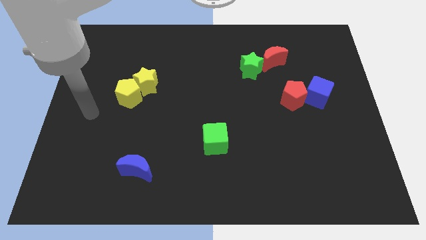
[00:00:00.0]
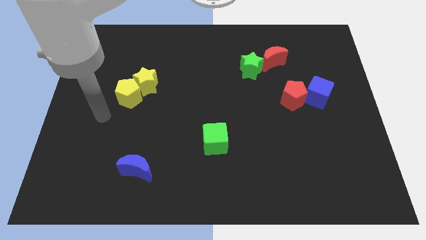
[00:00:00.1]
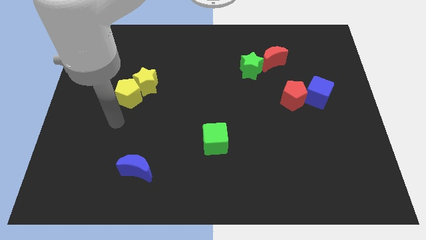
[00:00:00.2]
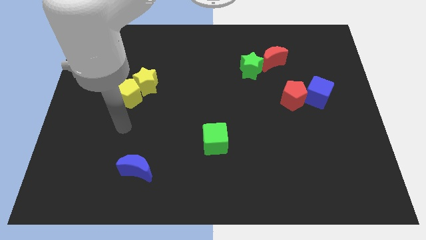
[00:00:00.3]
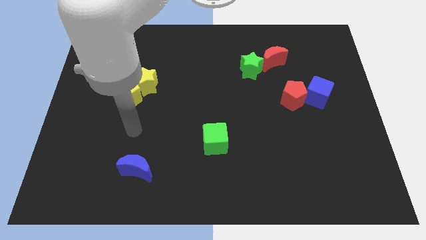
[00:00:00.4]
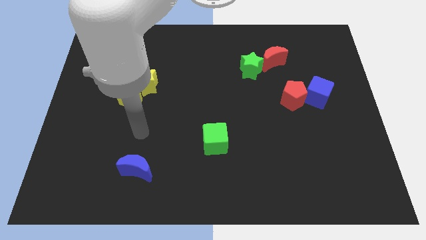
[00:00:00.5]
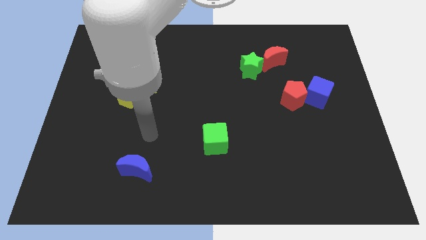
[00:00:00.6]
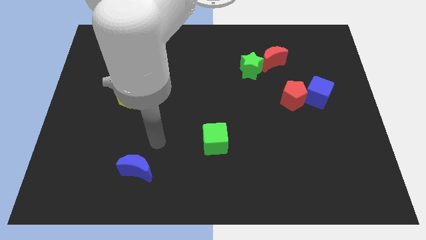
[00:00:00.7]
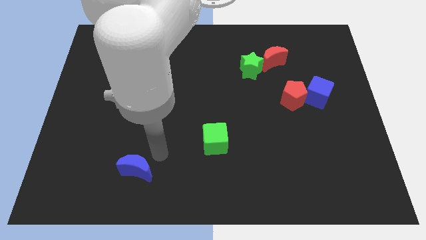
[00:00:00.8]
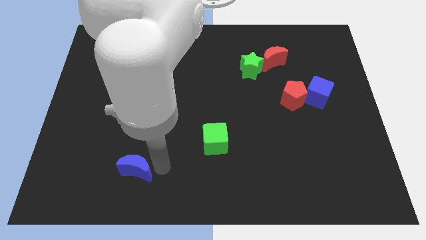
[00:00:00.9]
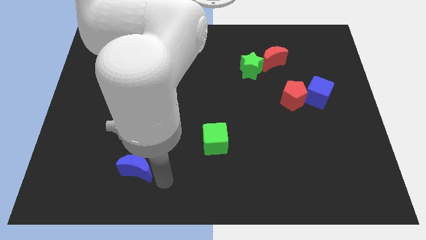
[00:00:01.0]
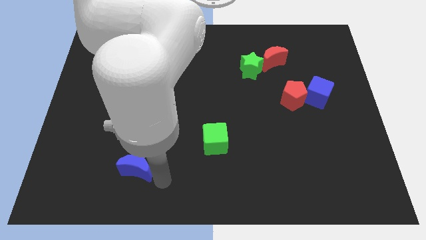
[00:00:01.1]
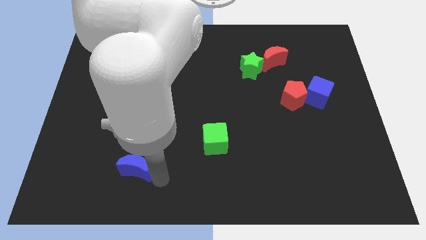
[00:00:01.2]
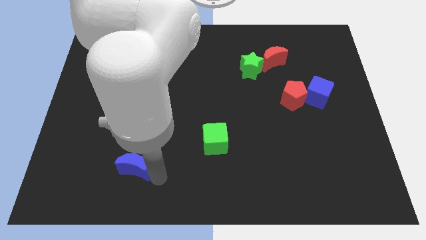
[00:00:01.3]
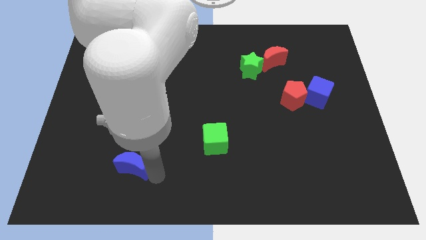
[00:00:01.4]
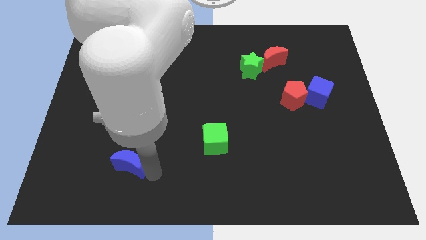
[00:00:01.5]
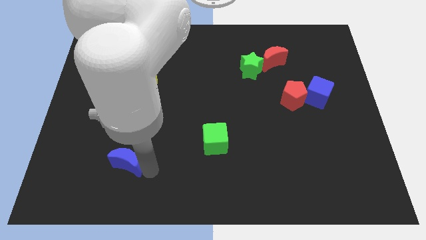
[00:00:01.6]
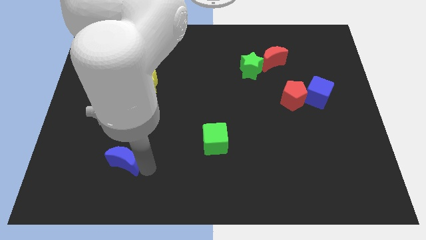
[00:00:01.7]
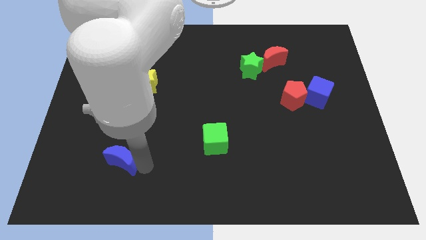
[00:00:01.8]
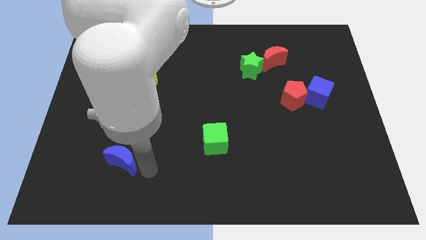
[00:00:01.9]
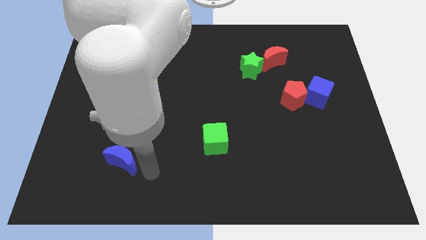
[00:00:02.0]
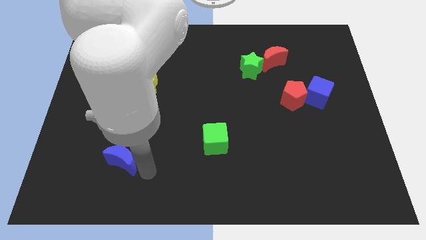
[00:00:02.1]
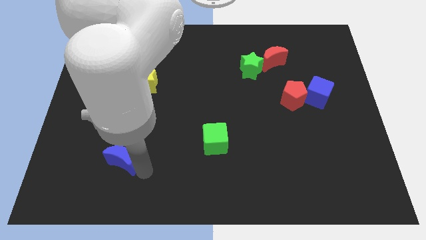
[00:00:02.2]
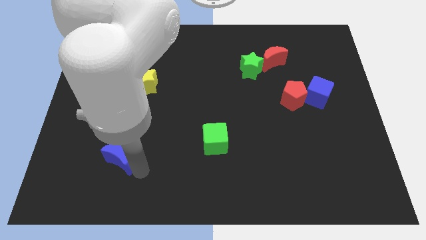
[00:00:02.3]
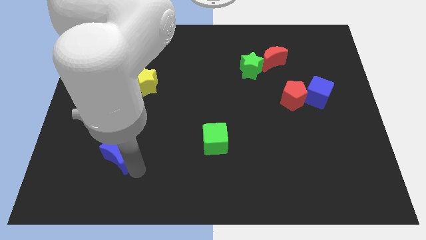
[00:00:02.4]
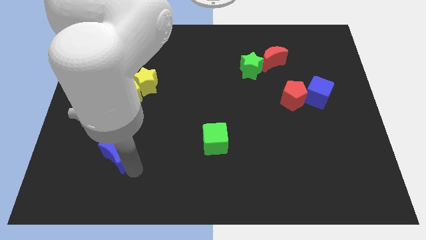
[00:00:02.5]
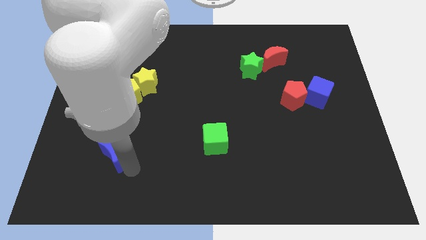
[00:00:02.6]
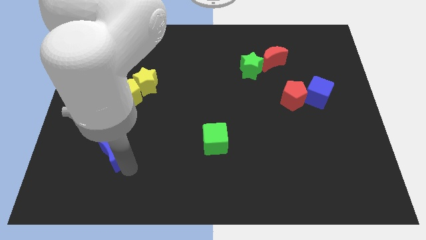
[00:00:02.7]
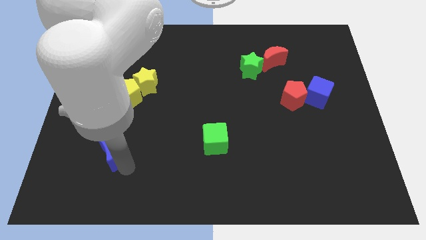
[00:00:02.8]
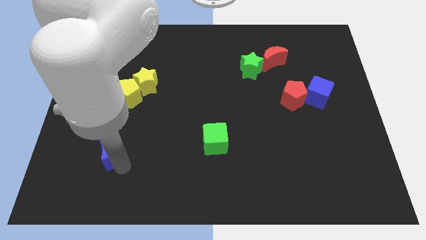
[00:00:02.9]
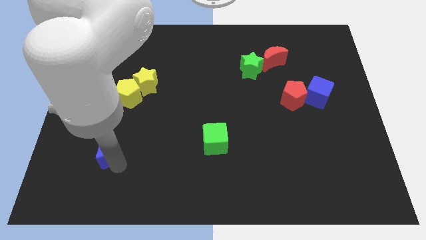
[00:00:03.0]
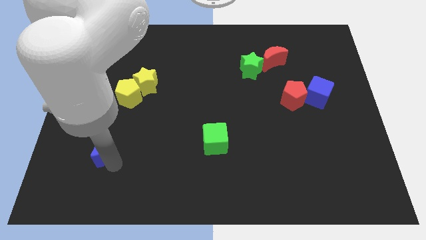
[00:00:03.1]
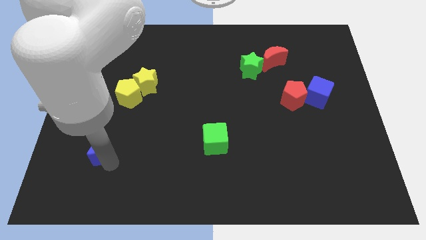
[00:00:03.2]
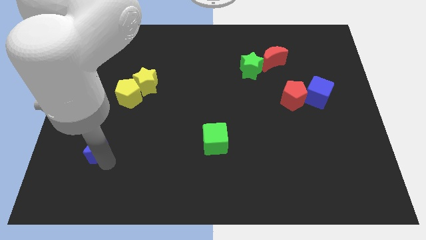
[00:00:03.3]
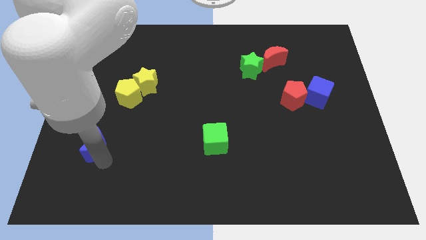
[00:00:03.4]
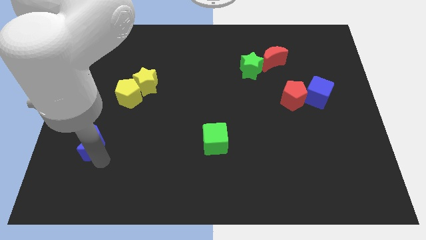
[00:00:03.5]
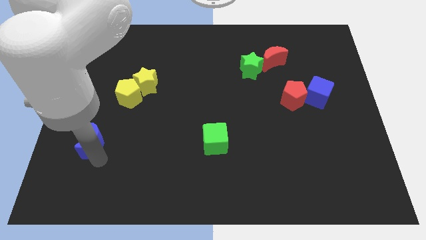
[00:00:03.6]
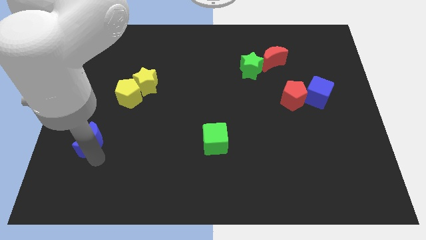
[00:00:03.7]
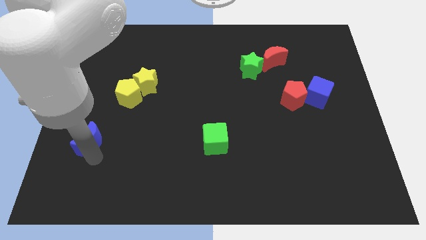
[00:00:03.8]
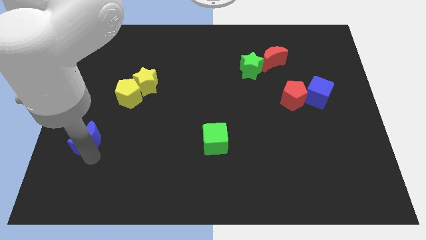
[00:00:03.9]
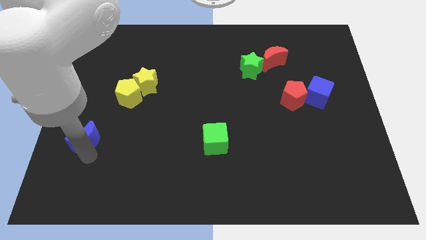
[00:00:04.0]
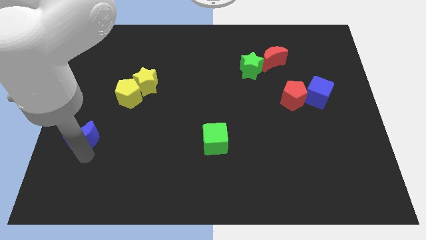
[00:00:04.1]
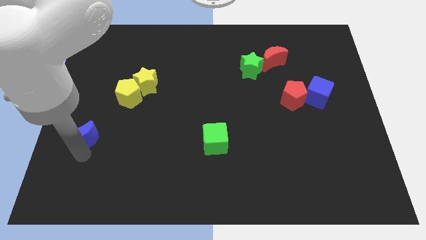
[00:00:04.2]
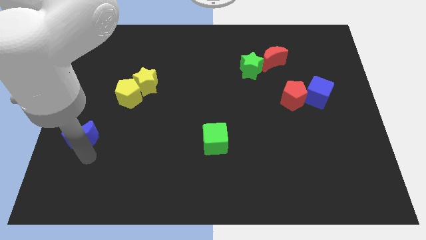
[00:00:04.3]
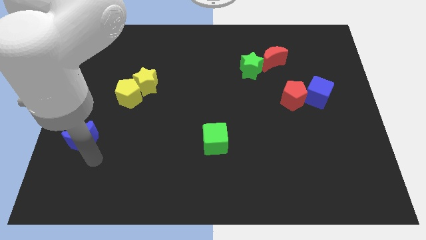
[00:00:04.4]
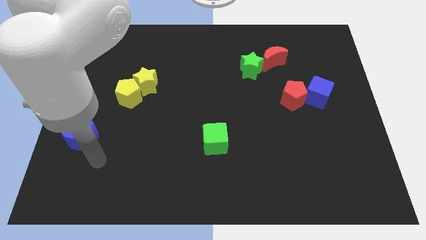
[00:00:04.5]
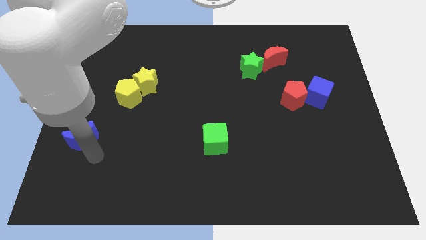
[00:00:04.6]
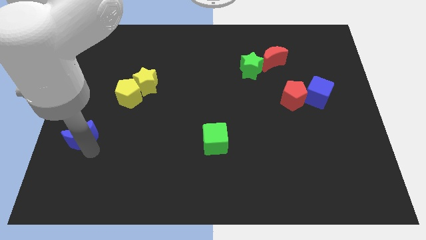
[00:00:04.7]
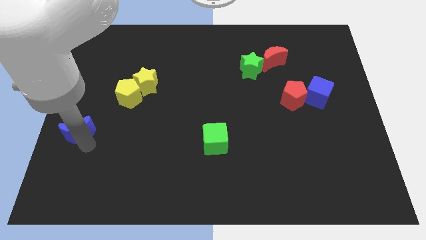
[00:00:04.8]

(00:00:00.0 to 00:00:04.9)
slide the blue moon to the center left

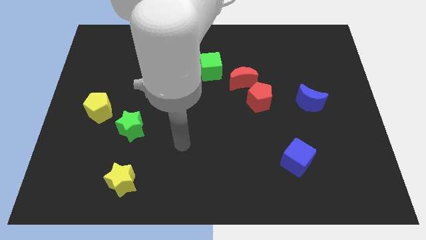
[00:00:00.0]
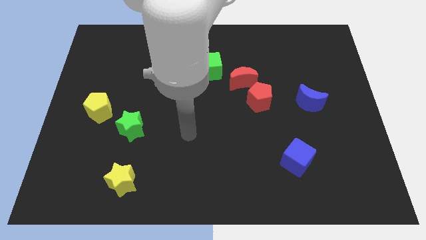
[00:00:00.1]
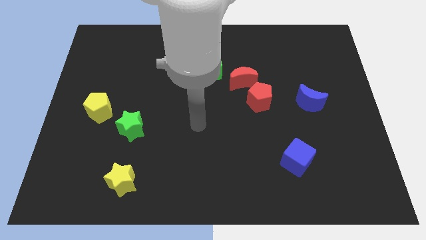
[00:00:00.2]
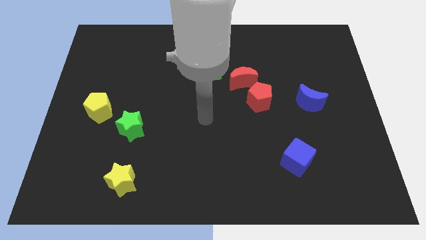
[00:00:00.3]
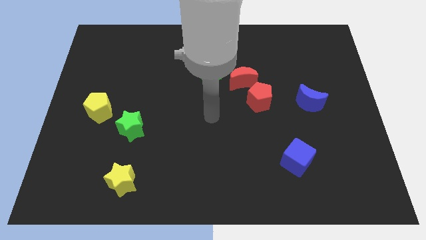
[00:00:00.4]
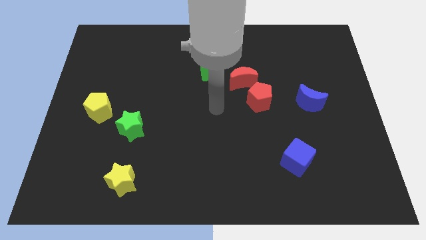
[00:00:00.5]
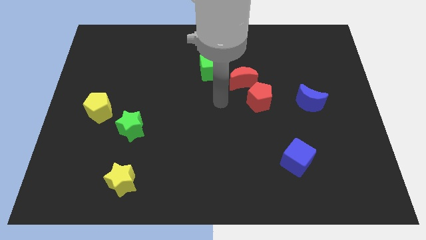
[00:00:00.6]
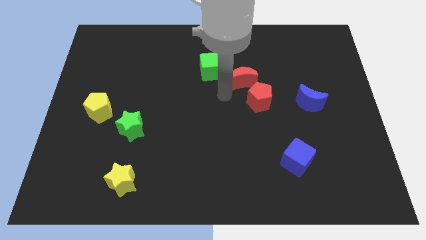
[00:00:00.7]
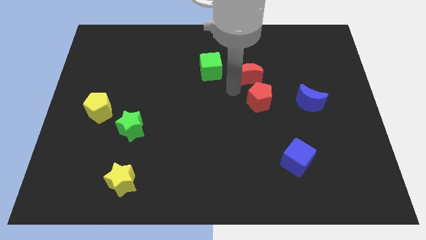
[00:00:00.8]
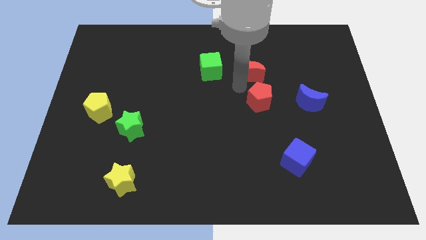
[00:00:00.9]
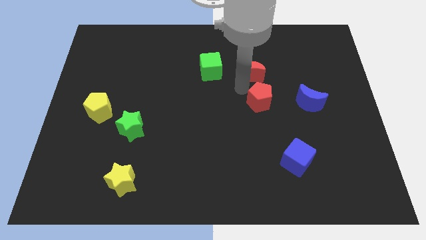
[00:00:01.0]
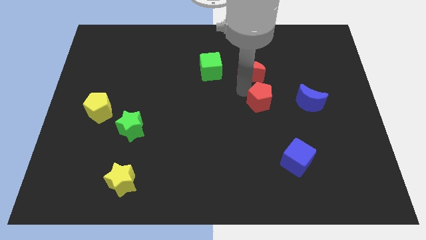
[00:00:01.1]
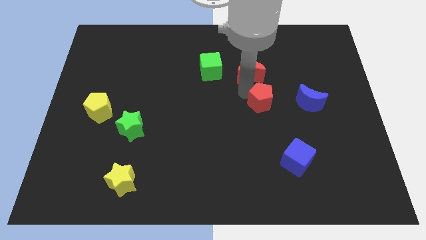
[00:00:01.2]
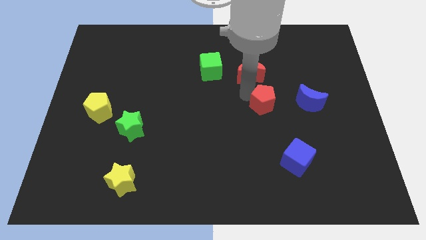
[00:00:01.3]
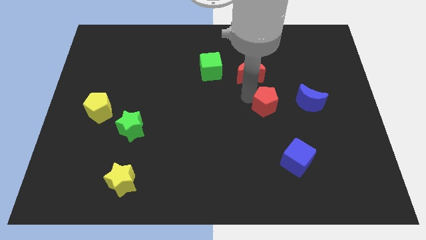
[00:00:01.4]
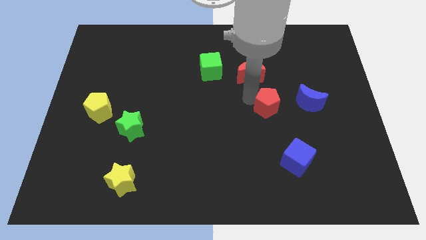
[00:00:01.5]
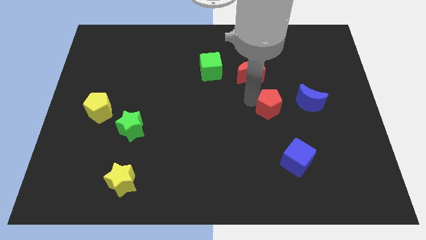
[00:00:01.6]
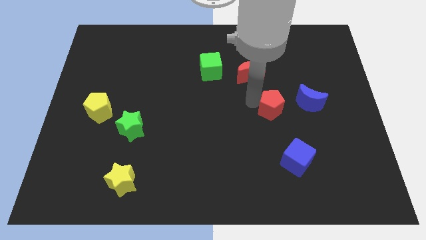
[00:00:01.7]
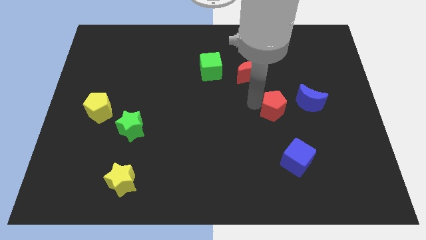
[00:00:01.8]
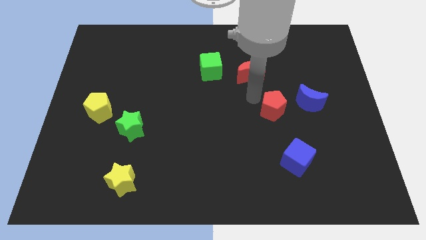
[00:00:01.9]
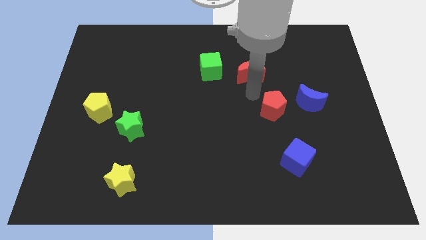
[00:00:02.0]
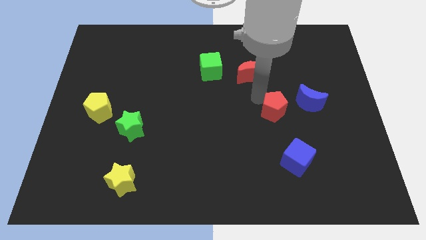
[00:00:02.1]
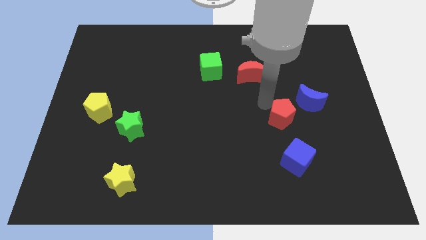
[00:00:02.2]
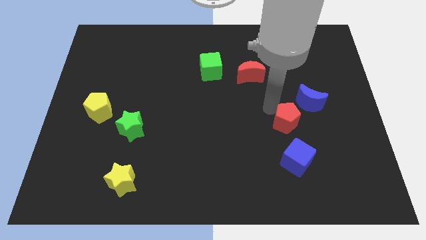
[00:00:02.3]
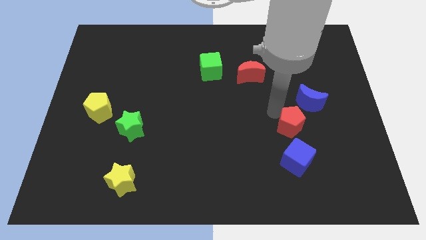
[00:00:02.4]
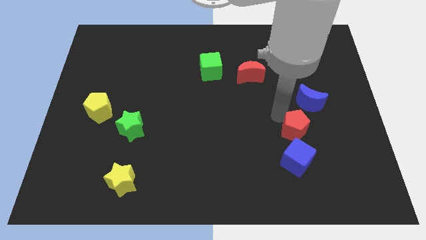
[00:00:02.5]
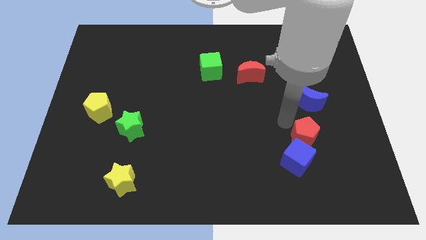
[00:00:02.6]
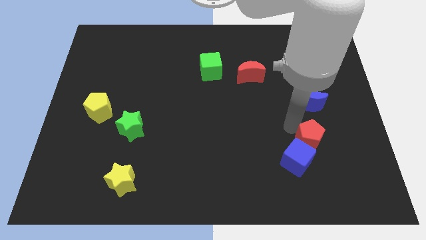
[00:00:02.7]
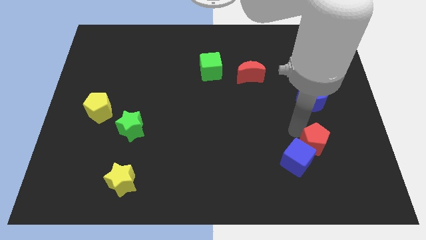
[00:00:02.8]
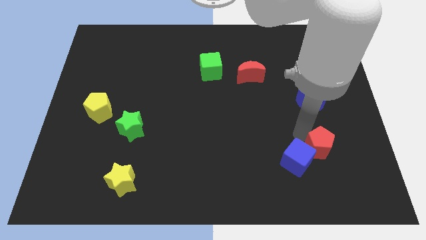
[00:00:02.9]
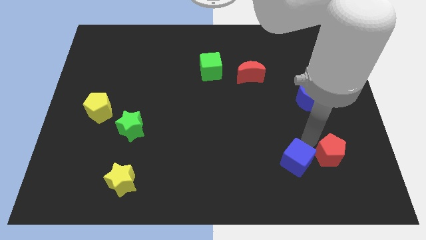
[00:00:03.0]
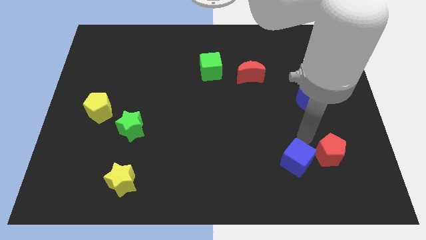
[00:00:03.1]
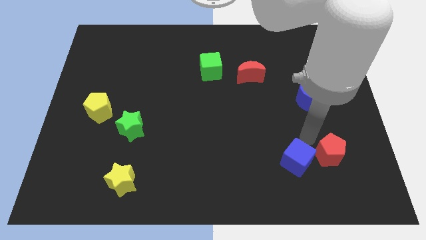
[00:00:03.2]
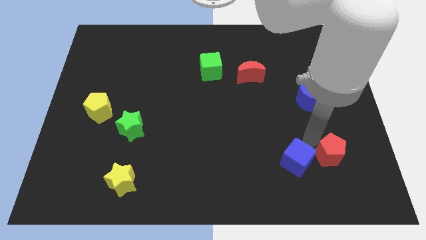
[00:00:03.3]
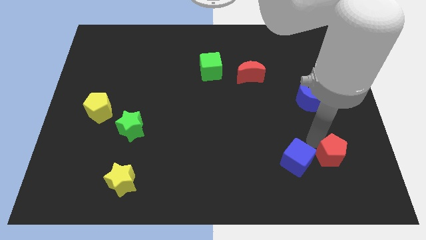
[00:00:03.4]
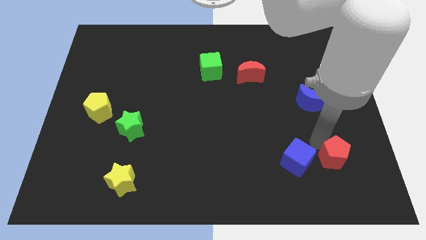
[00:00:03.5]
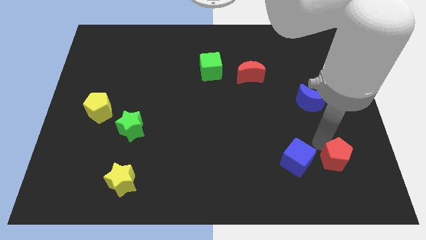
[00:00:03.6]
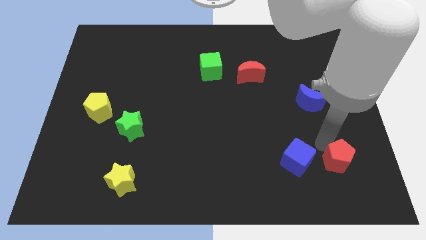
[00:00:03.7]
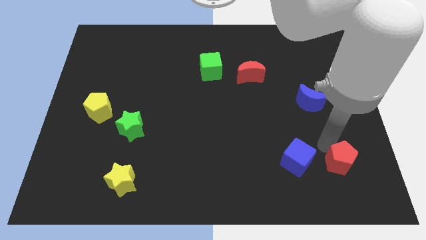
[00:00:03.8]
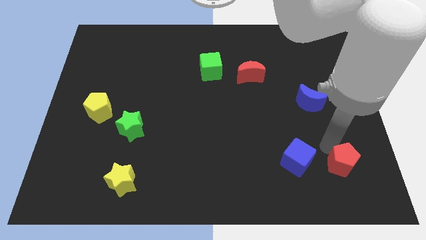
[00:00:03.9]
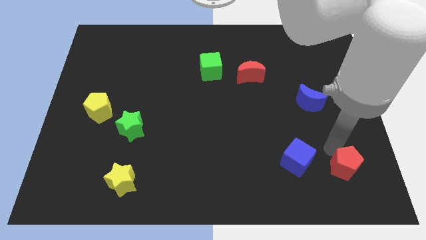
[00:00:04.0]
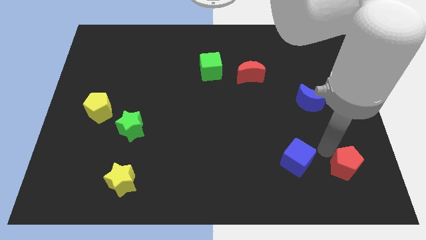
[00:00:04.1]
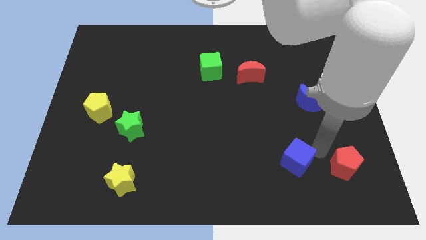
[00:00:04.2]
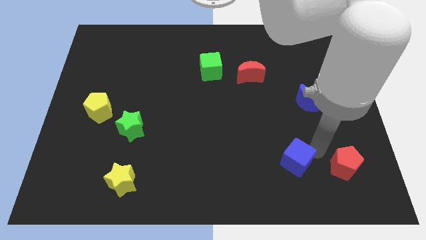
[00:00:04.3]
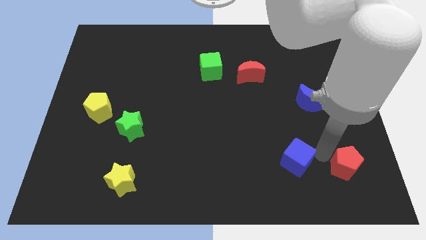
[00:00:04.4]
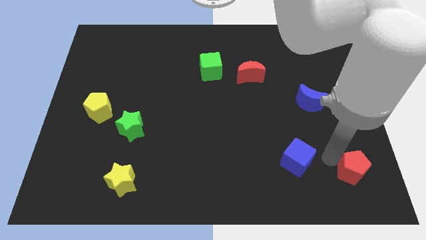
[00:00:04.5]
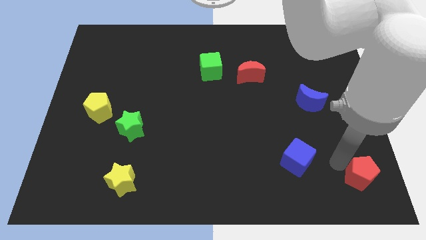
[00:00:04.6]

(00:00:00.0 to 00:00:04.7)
put the red pentagon to the lower right corner
